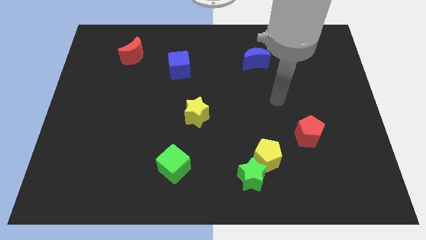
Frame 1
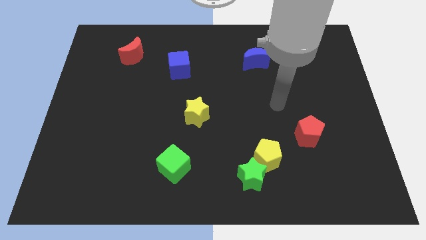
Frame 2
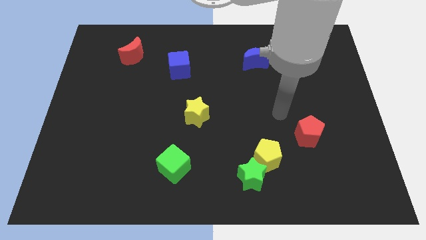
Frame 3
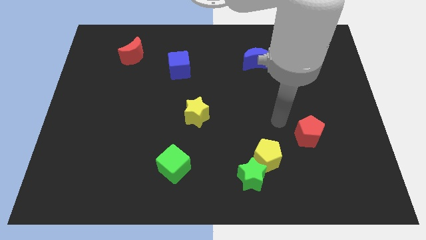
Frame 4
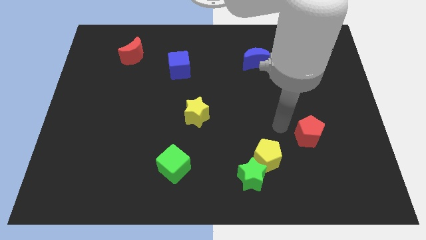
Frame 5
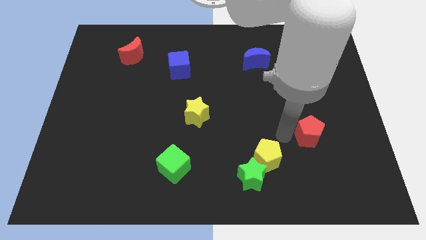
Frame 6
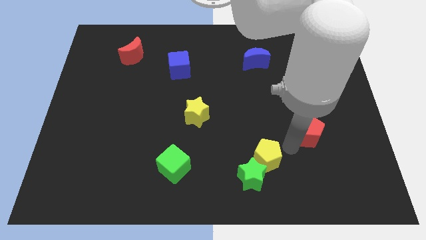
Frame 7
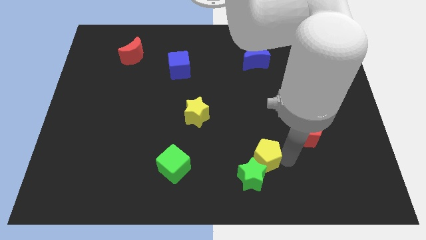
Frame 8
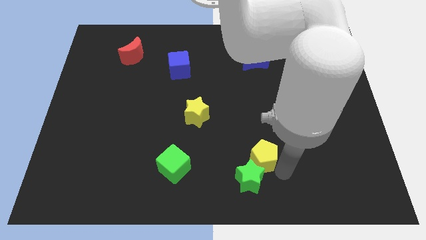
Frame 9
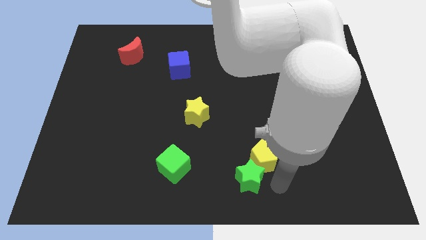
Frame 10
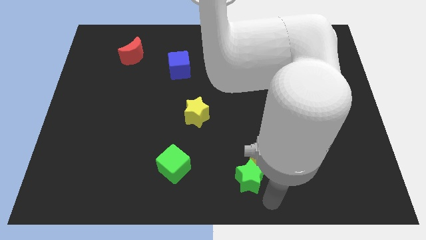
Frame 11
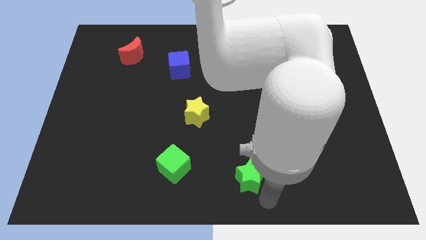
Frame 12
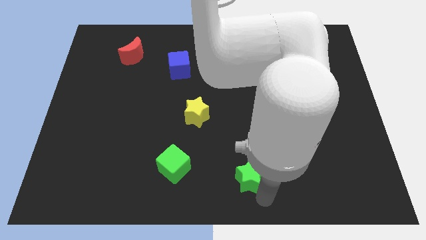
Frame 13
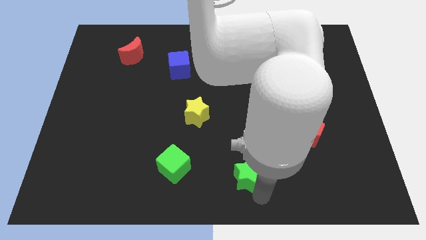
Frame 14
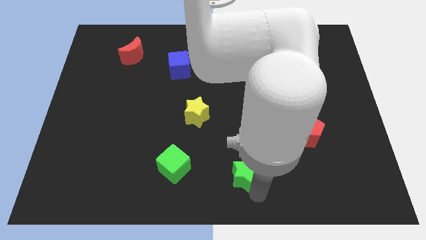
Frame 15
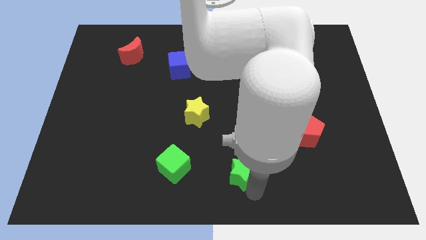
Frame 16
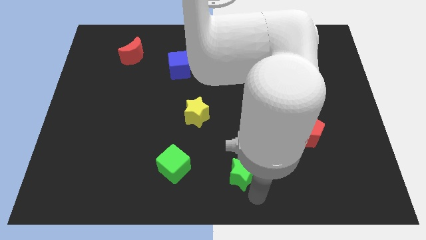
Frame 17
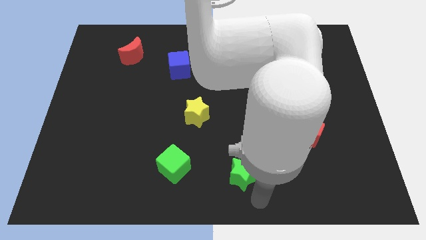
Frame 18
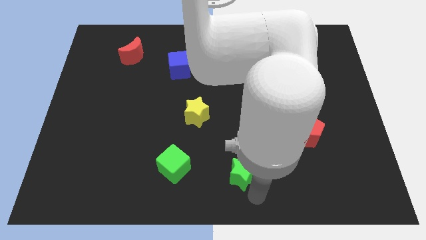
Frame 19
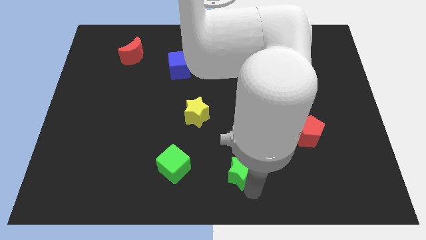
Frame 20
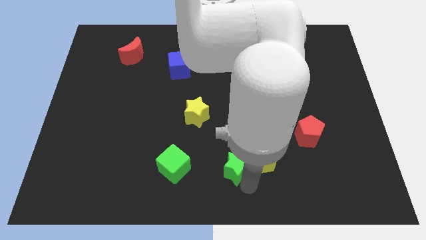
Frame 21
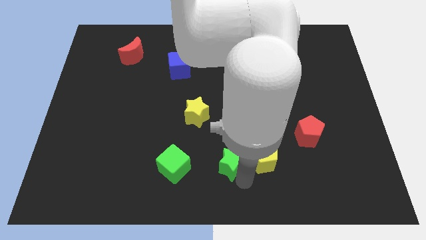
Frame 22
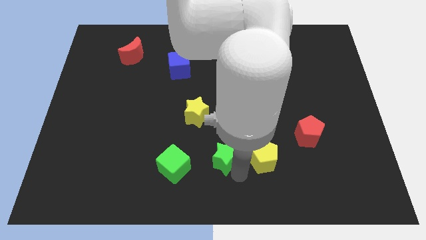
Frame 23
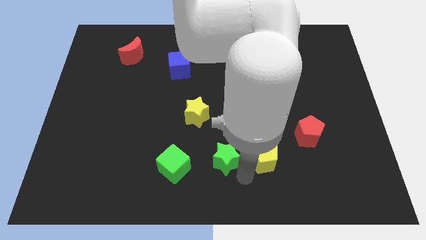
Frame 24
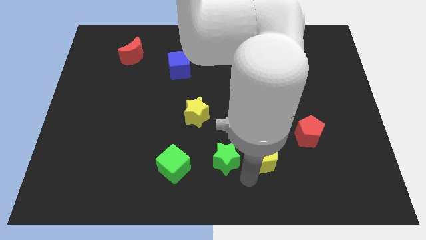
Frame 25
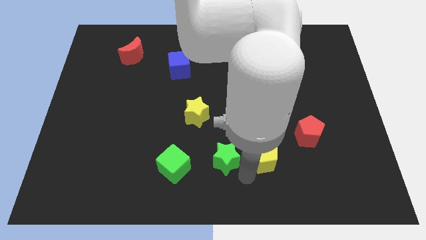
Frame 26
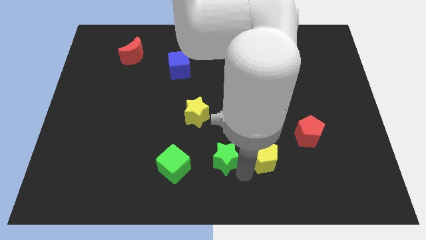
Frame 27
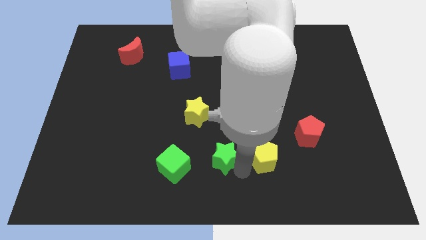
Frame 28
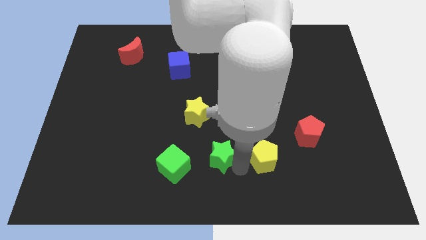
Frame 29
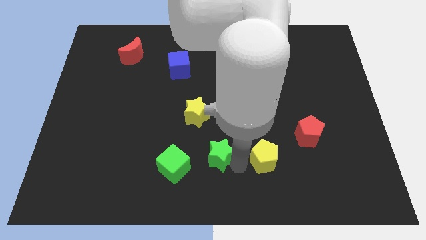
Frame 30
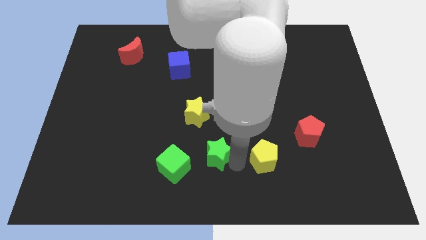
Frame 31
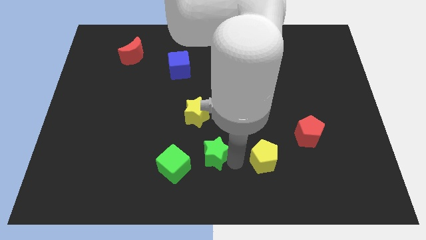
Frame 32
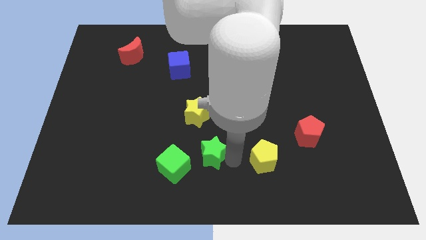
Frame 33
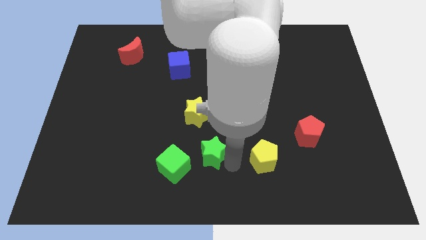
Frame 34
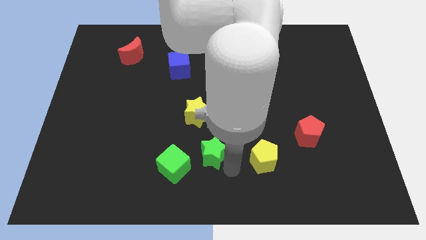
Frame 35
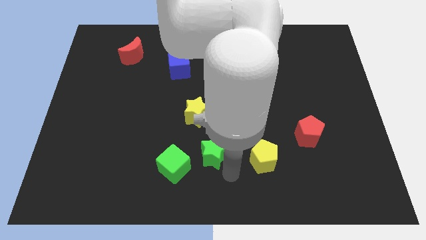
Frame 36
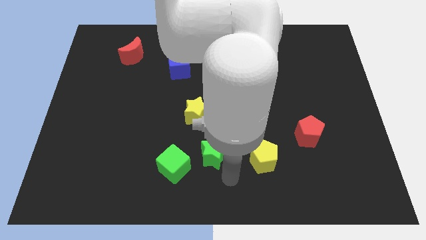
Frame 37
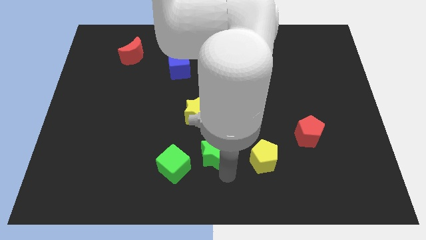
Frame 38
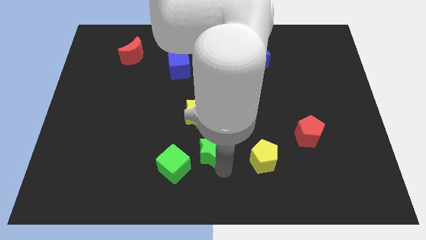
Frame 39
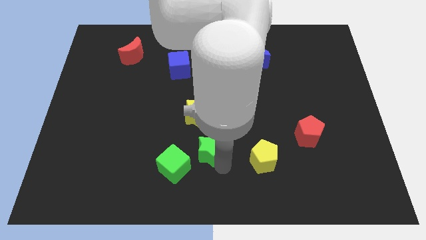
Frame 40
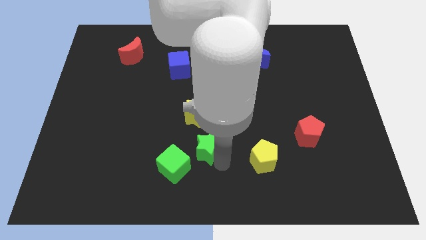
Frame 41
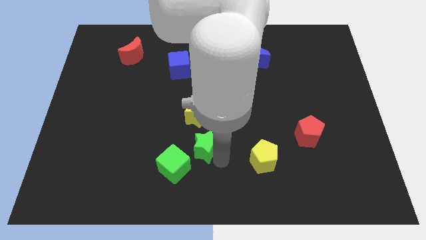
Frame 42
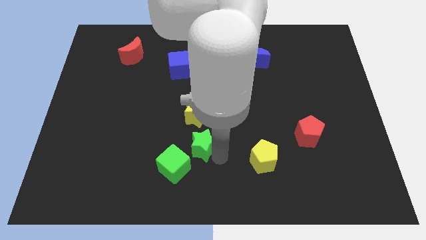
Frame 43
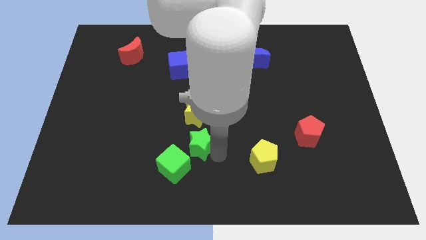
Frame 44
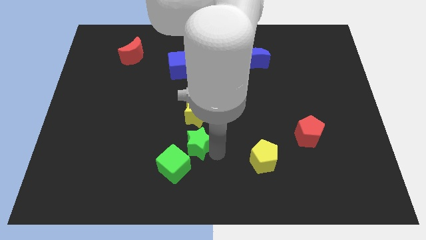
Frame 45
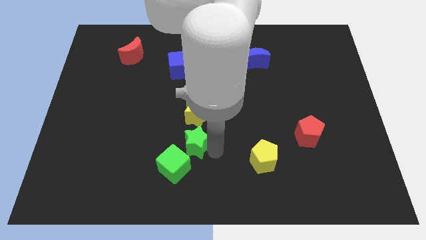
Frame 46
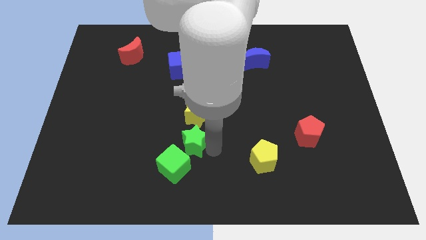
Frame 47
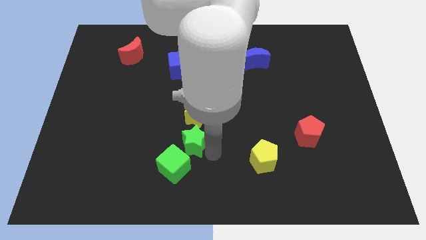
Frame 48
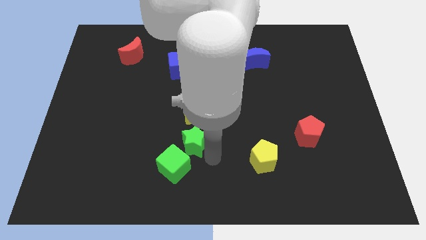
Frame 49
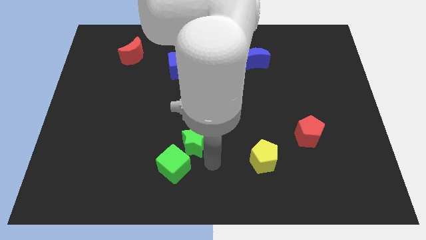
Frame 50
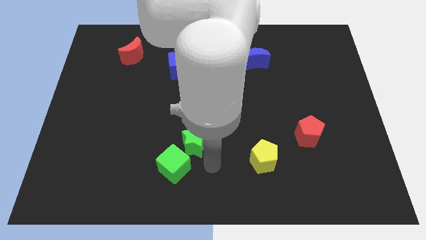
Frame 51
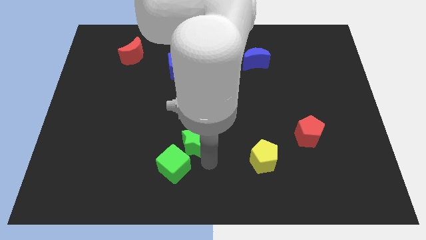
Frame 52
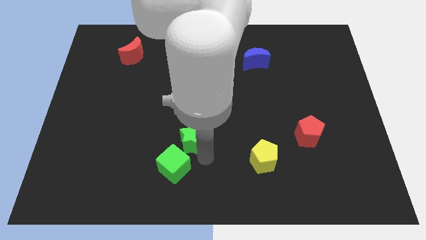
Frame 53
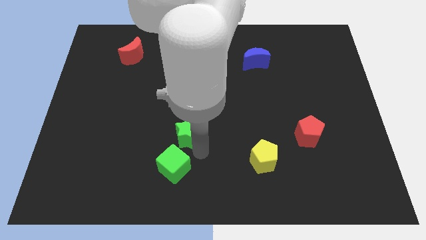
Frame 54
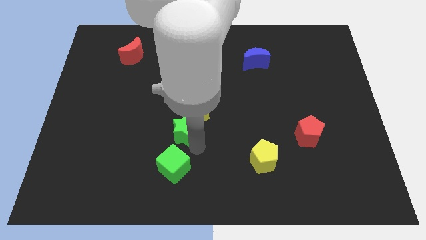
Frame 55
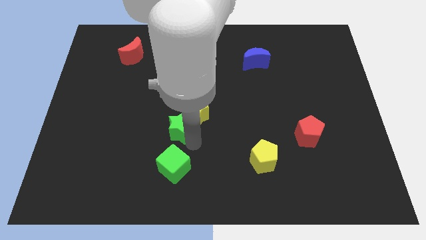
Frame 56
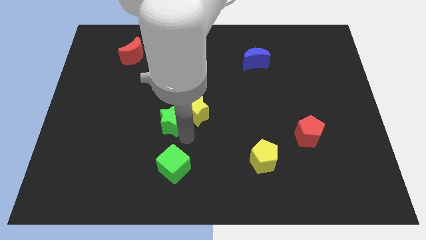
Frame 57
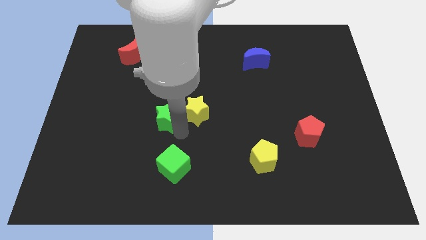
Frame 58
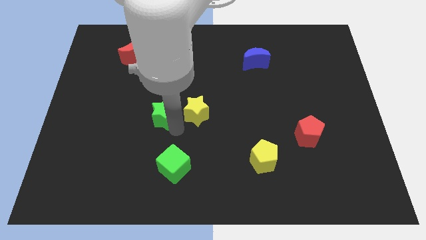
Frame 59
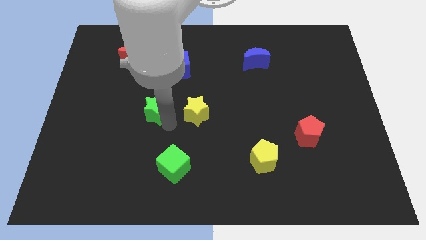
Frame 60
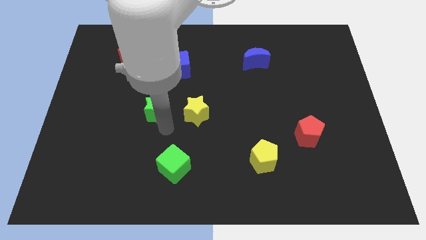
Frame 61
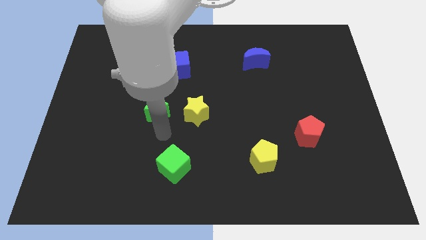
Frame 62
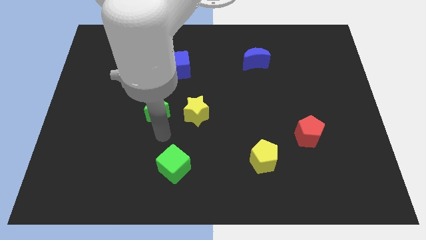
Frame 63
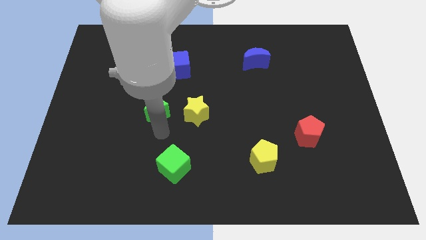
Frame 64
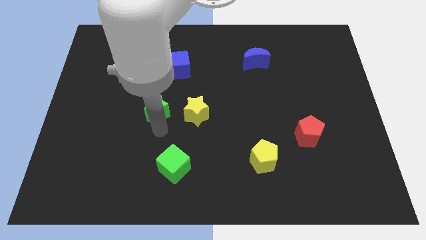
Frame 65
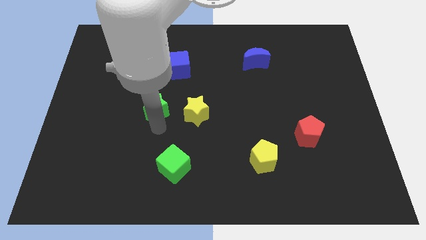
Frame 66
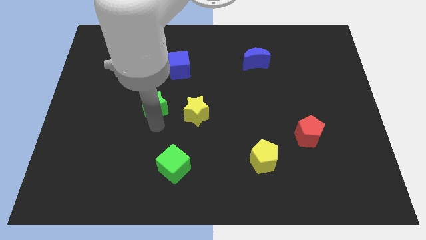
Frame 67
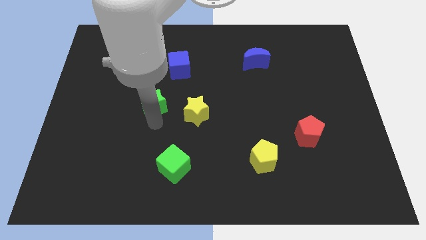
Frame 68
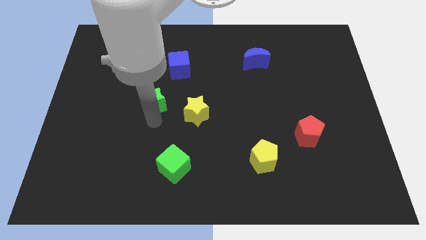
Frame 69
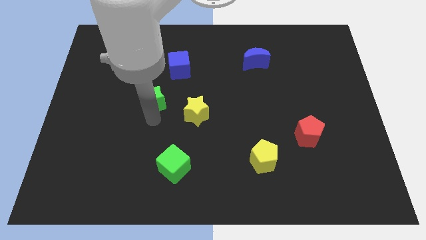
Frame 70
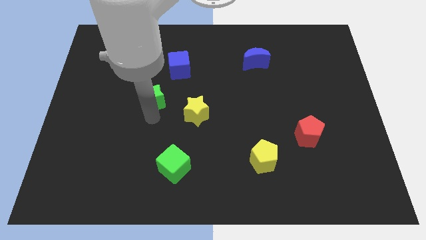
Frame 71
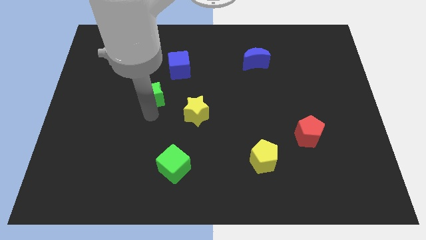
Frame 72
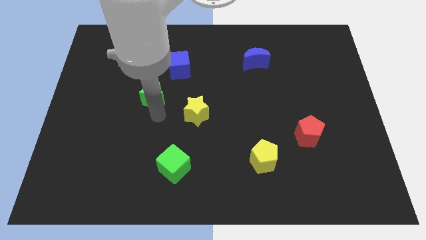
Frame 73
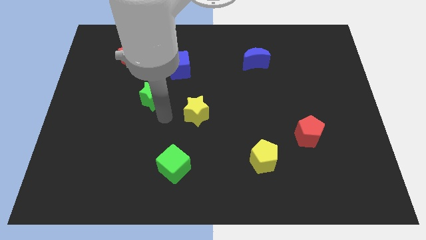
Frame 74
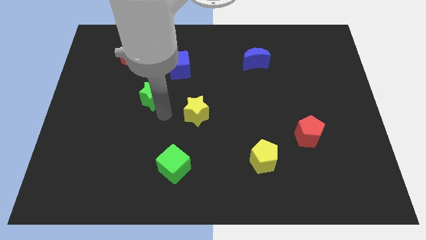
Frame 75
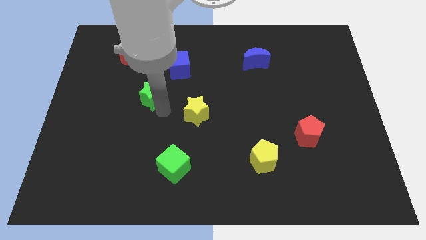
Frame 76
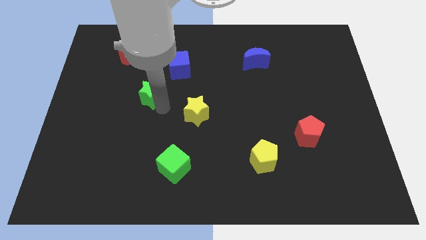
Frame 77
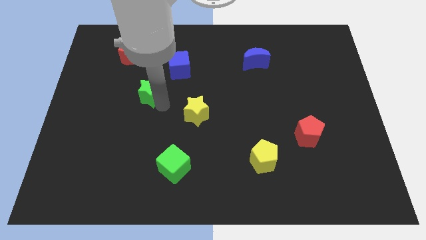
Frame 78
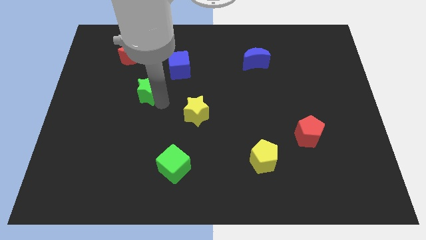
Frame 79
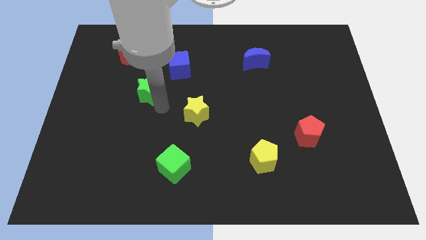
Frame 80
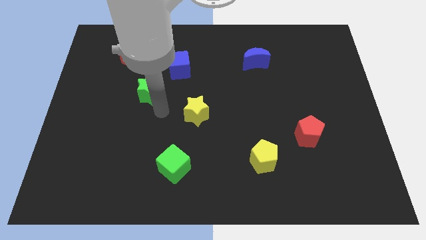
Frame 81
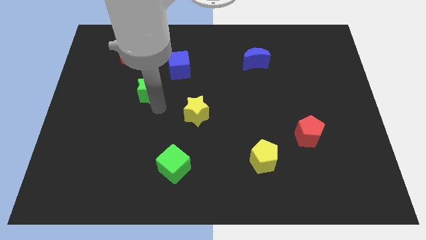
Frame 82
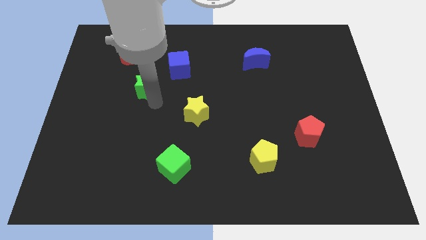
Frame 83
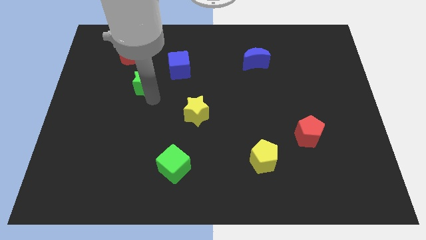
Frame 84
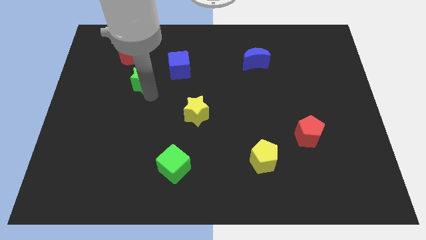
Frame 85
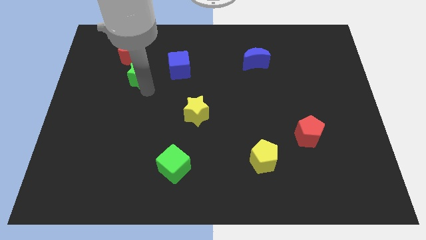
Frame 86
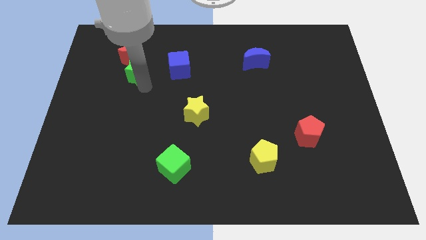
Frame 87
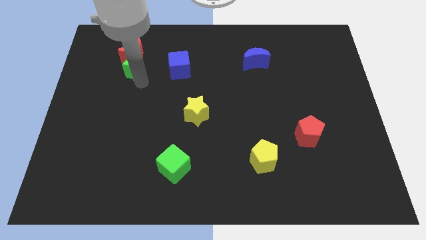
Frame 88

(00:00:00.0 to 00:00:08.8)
push the green star close to the red moon
